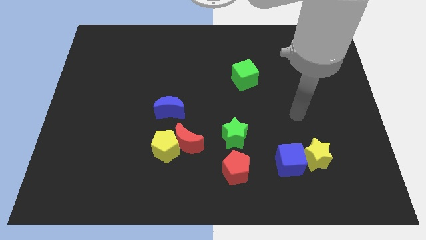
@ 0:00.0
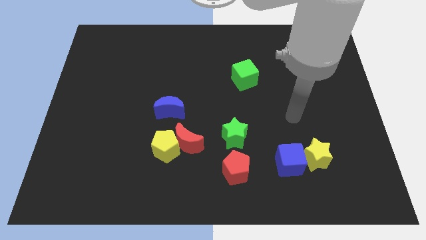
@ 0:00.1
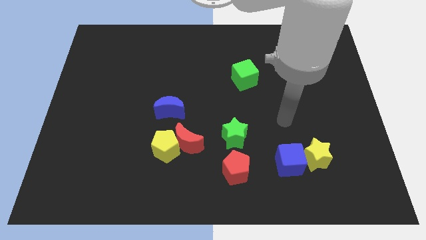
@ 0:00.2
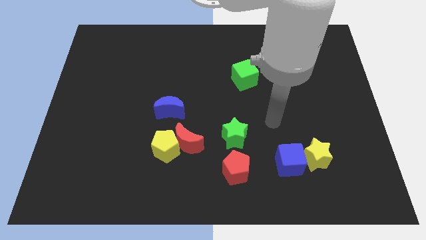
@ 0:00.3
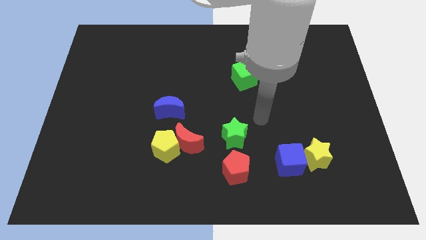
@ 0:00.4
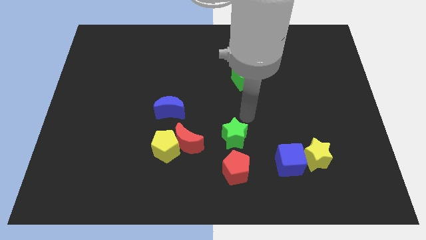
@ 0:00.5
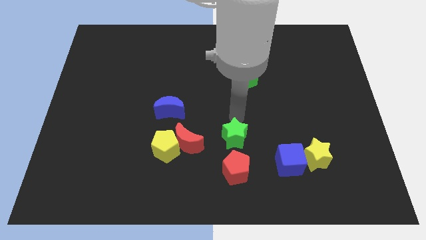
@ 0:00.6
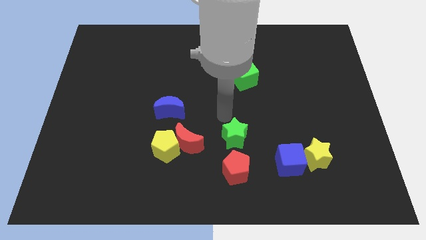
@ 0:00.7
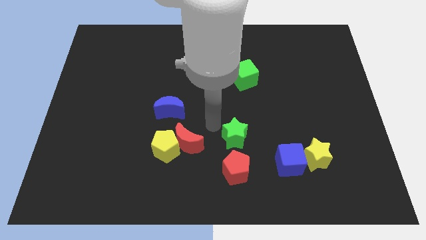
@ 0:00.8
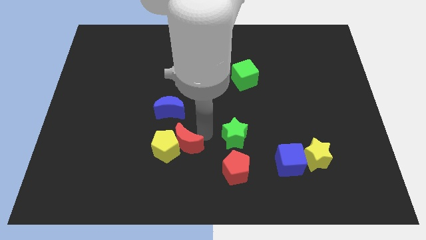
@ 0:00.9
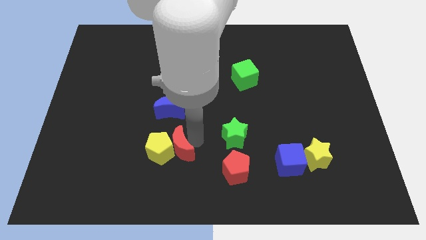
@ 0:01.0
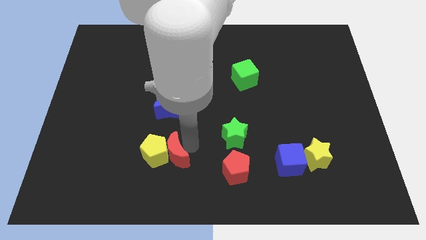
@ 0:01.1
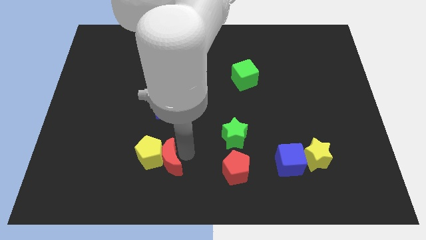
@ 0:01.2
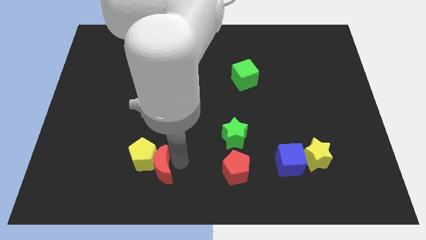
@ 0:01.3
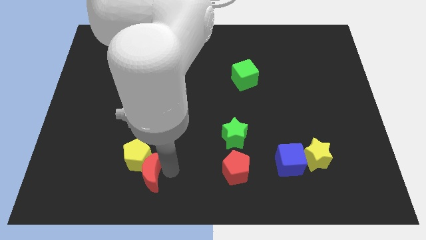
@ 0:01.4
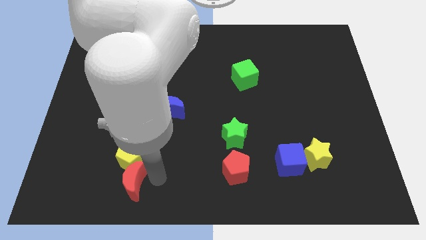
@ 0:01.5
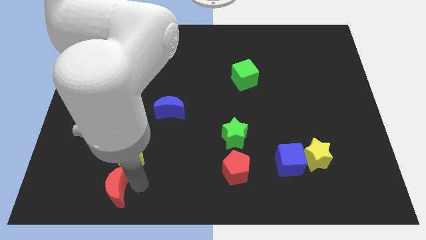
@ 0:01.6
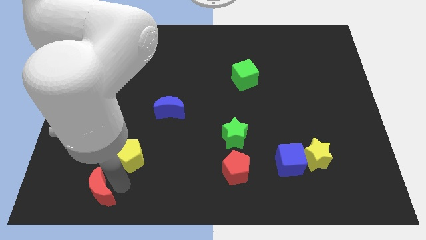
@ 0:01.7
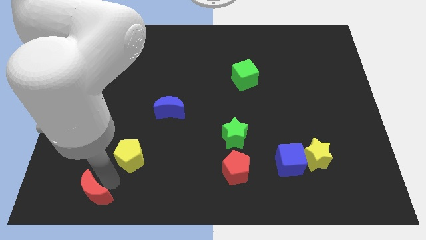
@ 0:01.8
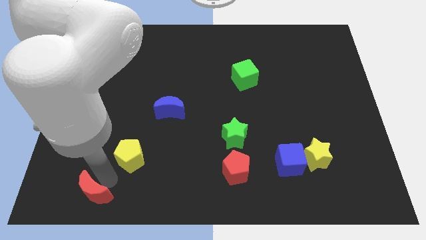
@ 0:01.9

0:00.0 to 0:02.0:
pull the yellow pentagon apart from the red moon

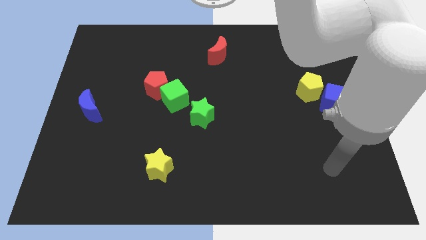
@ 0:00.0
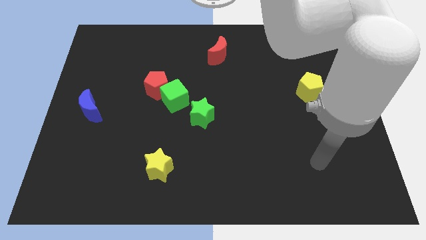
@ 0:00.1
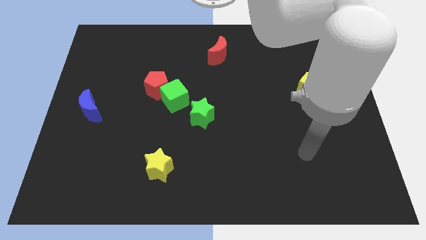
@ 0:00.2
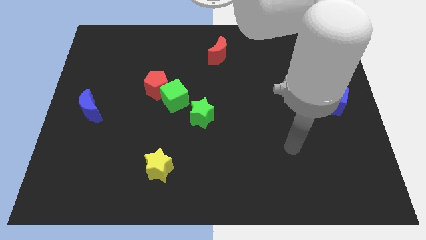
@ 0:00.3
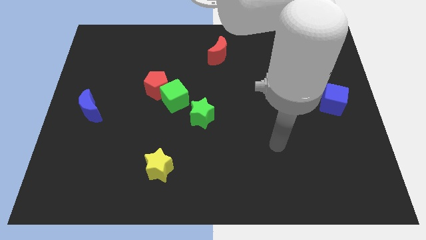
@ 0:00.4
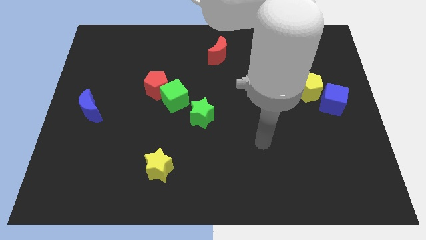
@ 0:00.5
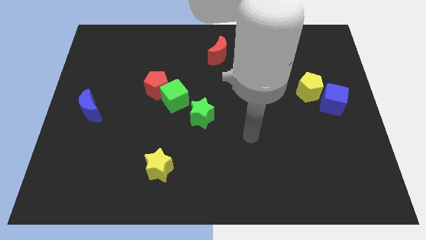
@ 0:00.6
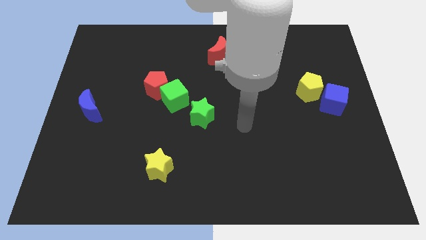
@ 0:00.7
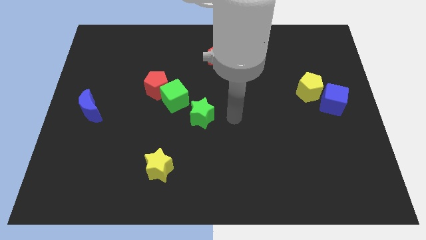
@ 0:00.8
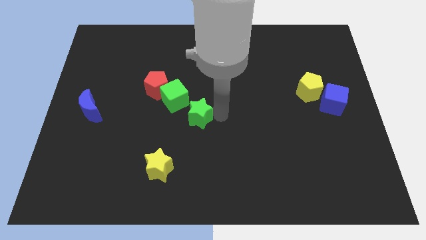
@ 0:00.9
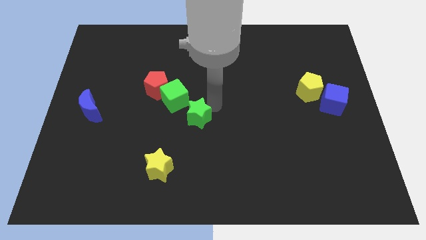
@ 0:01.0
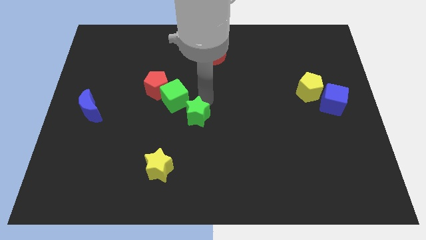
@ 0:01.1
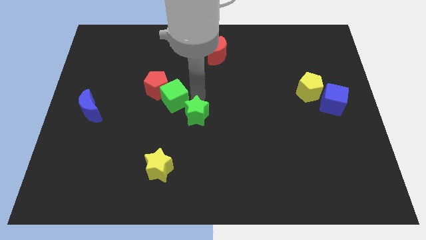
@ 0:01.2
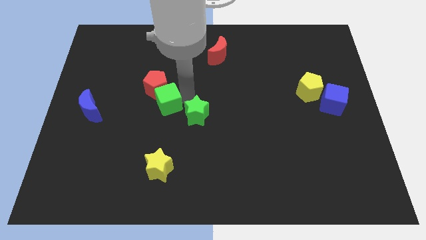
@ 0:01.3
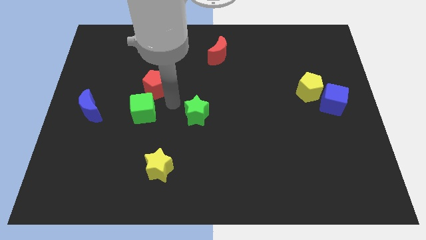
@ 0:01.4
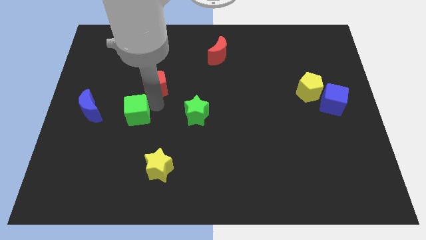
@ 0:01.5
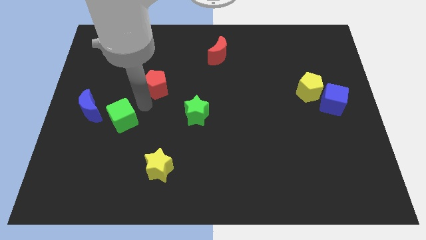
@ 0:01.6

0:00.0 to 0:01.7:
separate the red pentagon from the green cube

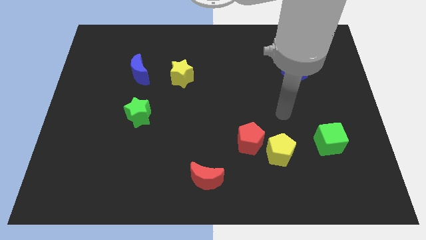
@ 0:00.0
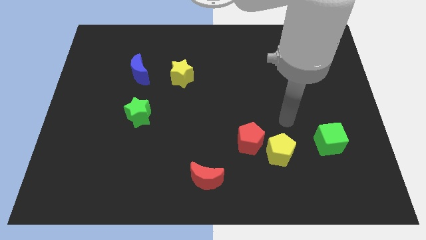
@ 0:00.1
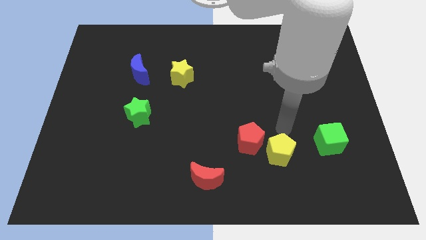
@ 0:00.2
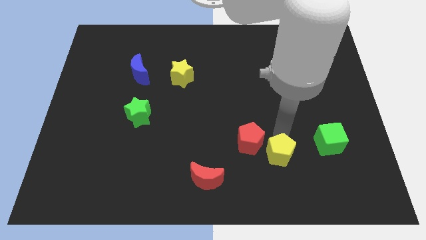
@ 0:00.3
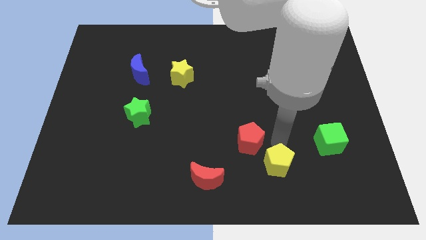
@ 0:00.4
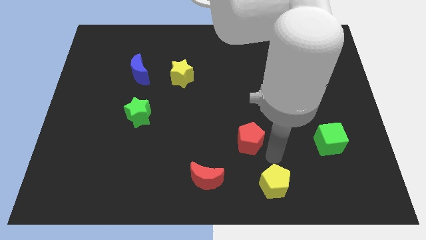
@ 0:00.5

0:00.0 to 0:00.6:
move the red pentagon away from the yellow pentagon

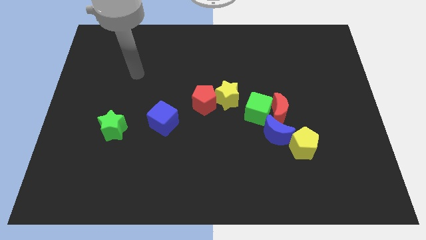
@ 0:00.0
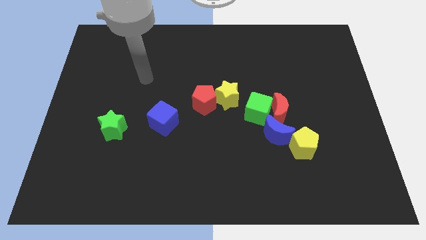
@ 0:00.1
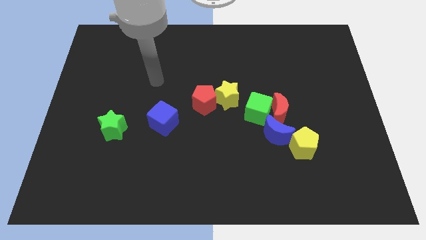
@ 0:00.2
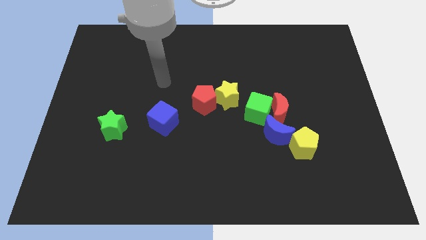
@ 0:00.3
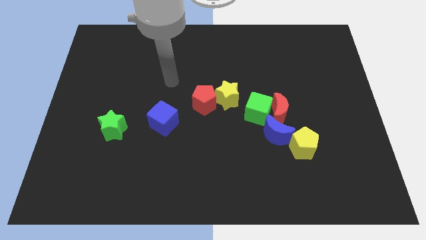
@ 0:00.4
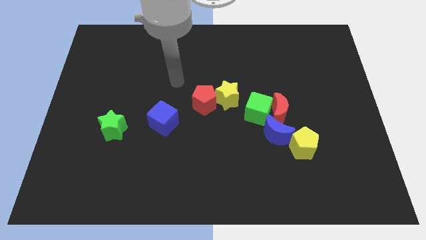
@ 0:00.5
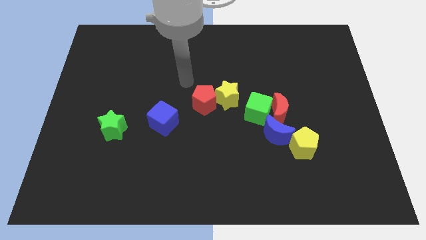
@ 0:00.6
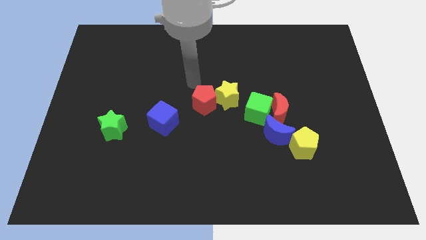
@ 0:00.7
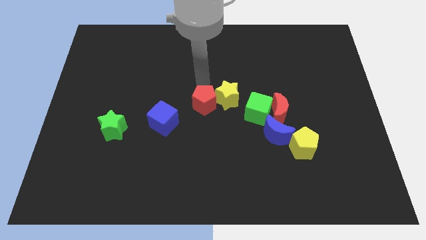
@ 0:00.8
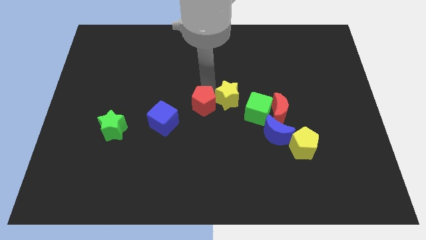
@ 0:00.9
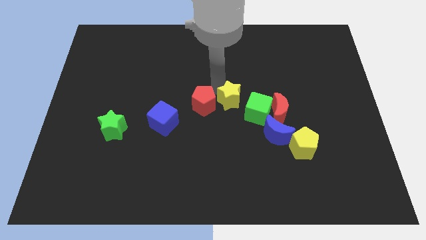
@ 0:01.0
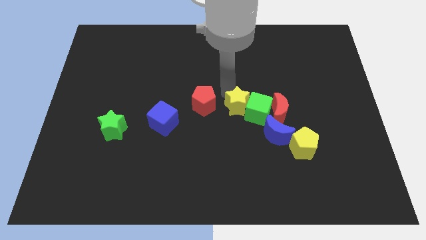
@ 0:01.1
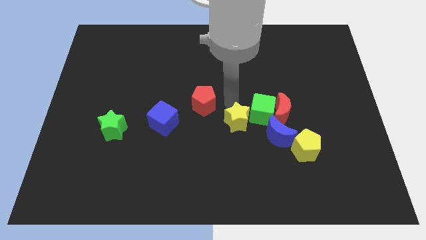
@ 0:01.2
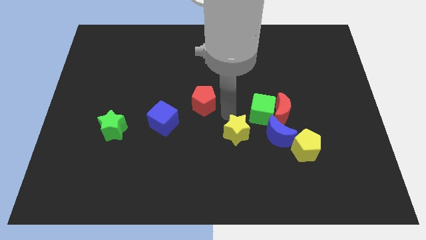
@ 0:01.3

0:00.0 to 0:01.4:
pull the red pentagon apart from the yellow star

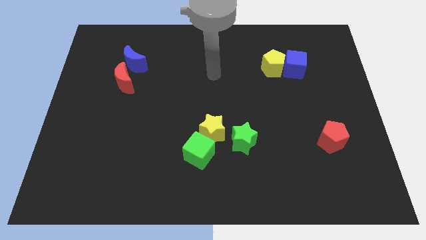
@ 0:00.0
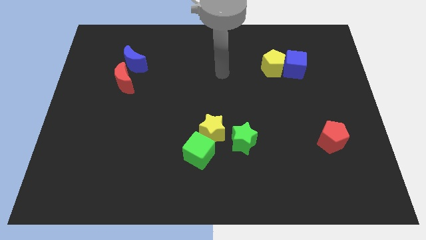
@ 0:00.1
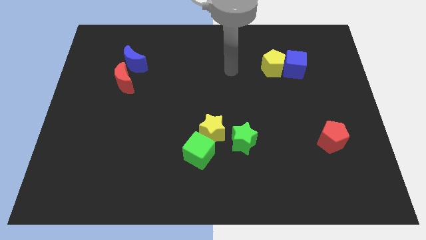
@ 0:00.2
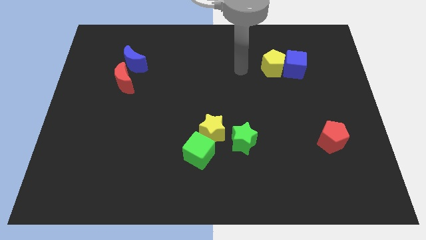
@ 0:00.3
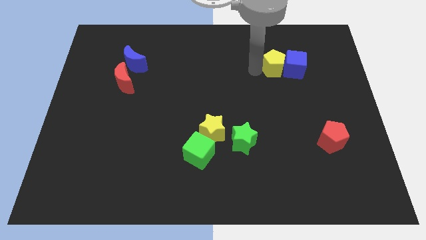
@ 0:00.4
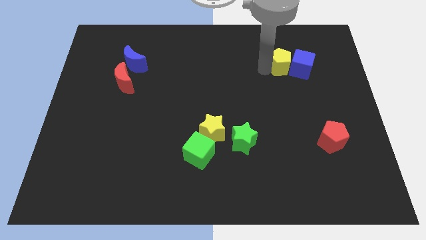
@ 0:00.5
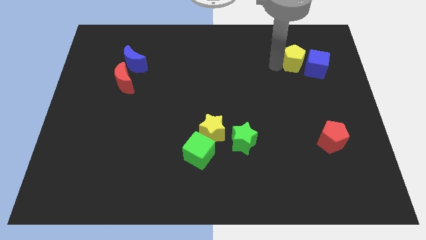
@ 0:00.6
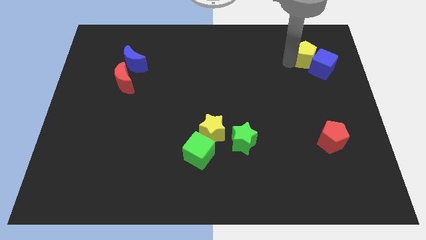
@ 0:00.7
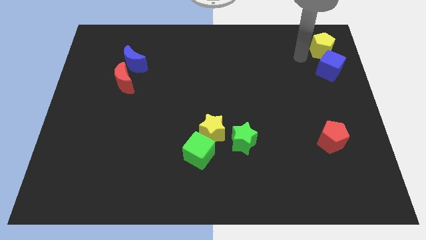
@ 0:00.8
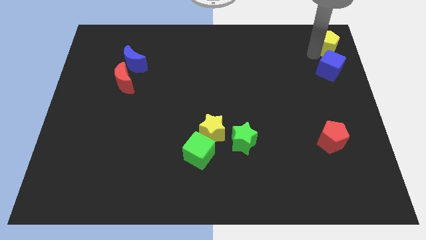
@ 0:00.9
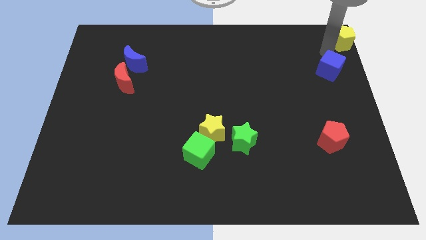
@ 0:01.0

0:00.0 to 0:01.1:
move the blue cube away from the yellow pentagon

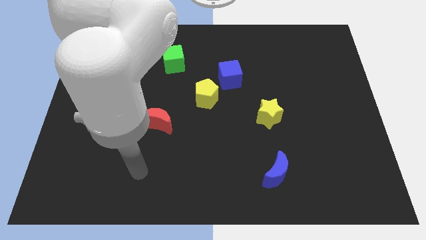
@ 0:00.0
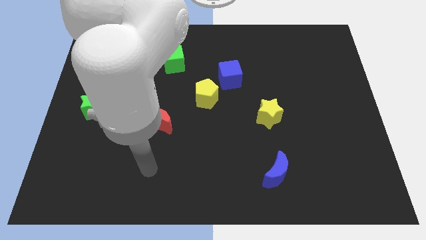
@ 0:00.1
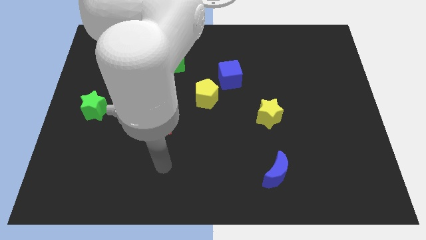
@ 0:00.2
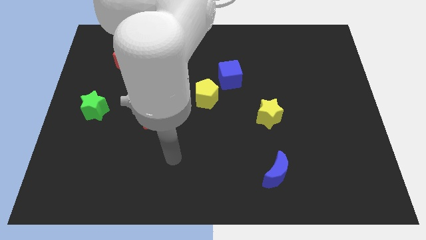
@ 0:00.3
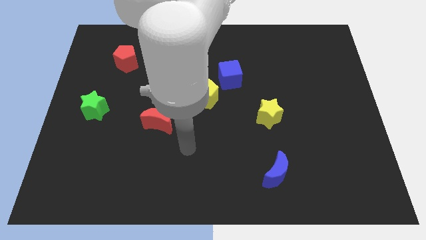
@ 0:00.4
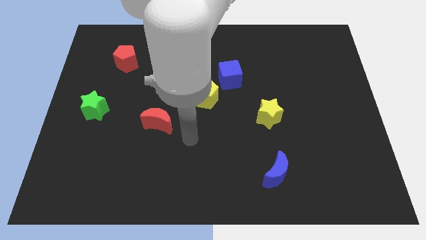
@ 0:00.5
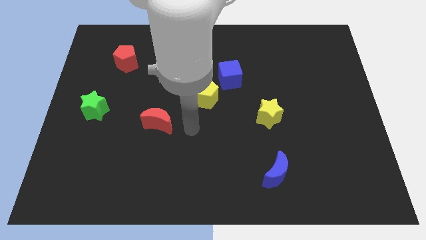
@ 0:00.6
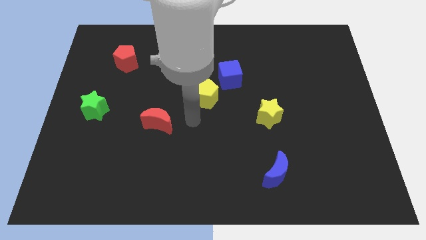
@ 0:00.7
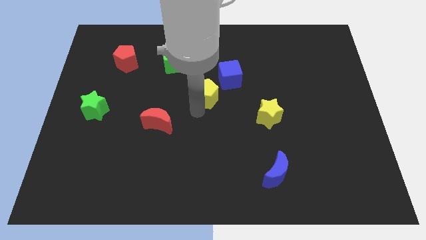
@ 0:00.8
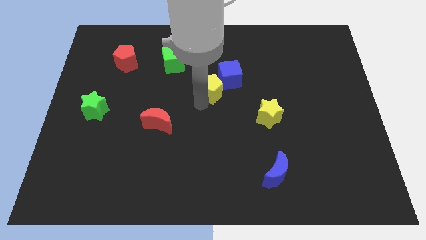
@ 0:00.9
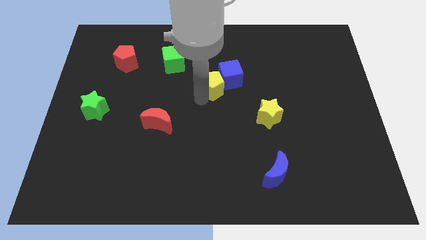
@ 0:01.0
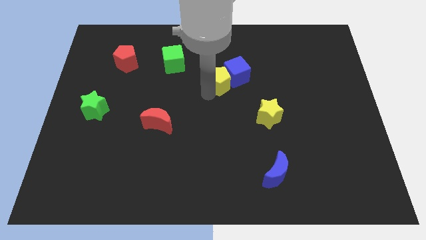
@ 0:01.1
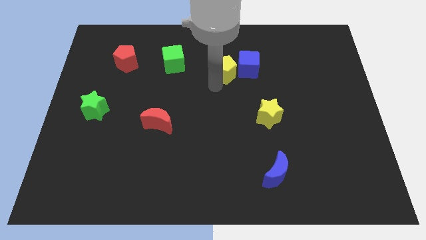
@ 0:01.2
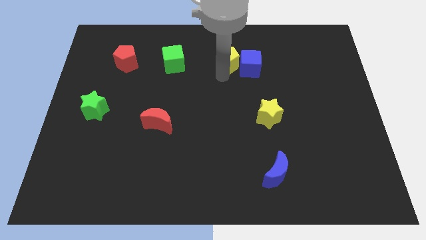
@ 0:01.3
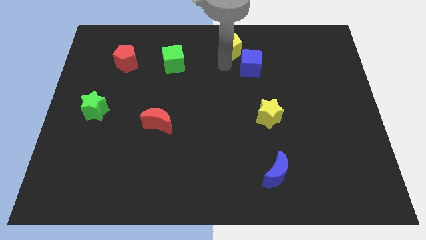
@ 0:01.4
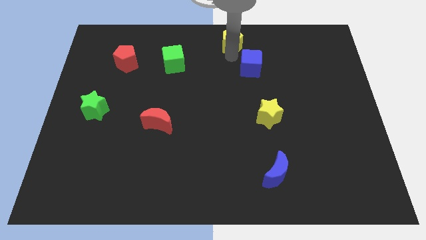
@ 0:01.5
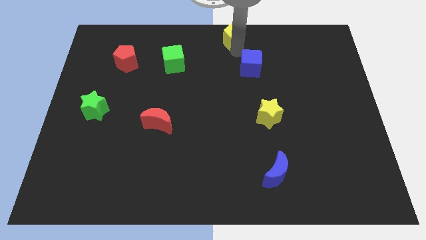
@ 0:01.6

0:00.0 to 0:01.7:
pull the blue cube apart from the yellow pentagon

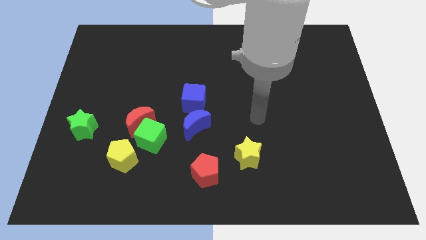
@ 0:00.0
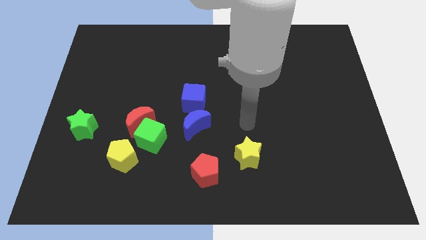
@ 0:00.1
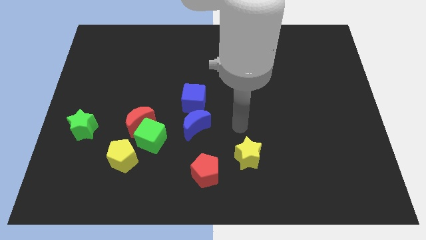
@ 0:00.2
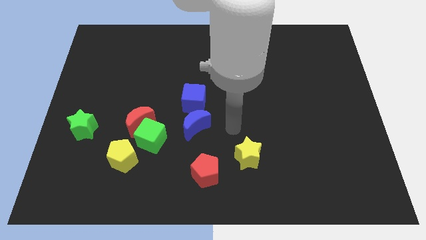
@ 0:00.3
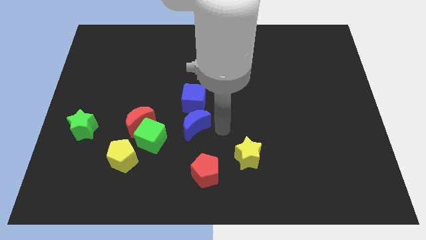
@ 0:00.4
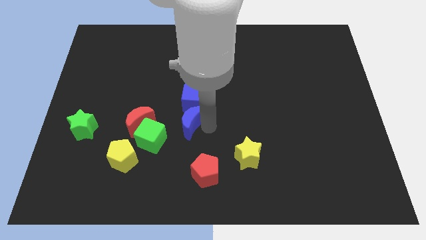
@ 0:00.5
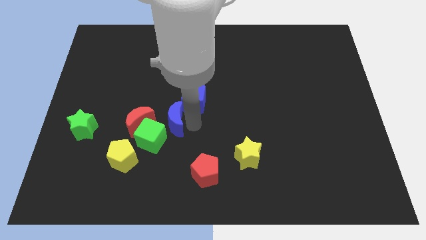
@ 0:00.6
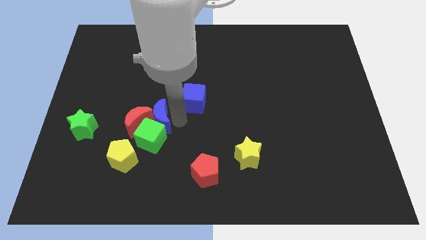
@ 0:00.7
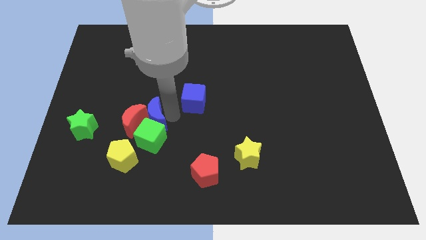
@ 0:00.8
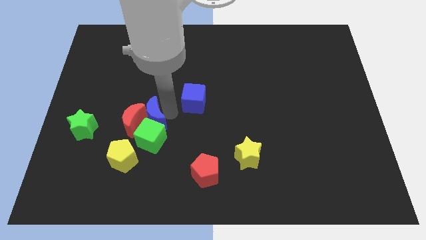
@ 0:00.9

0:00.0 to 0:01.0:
move the blue cube away from the blue moon
